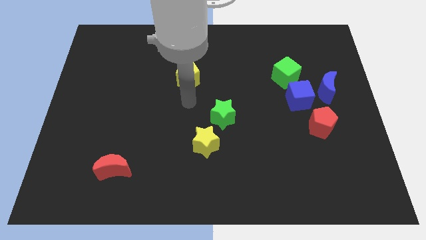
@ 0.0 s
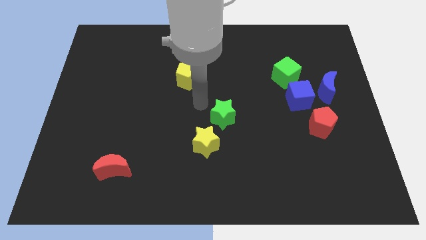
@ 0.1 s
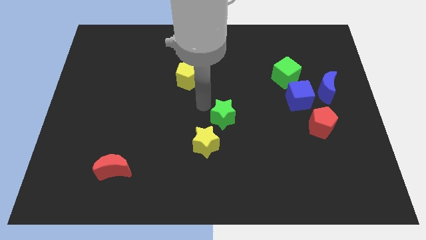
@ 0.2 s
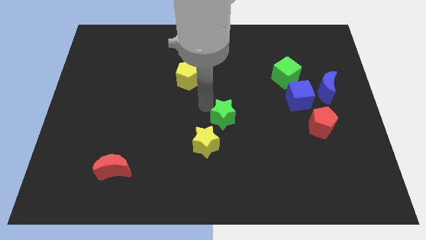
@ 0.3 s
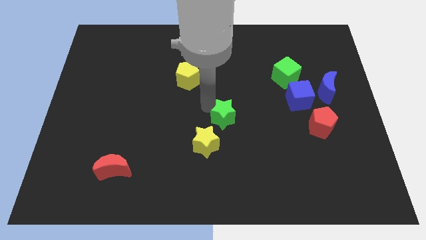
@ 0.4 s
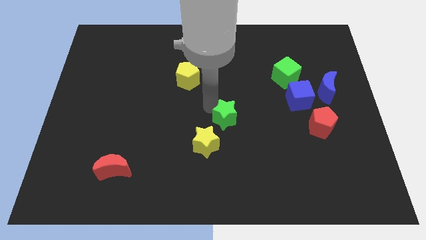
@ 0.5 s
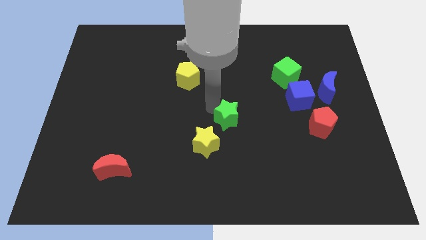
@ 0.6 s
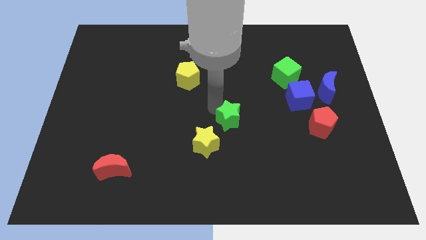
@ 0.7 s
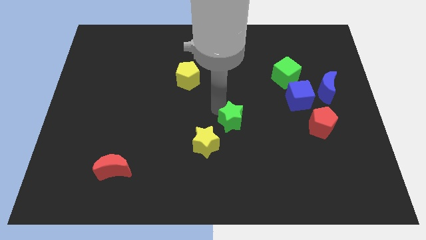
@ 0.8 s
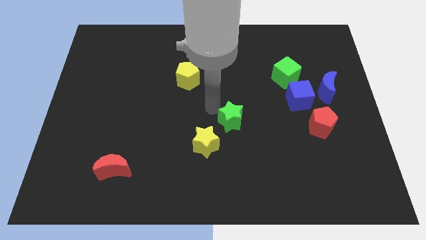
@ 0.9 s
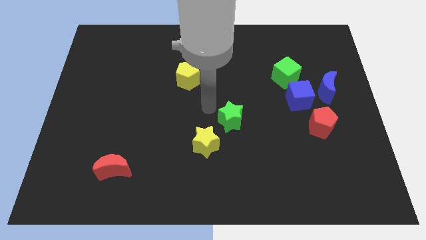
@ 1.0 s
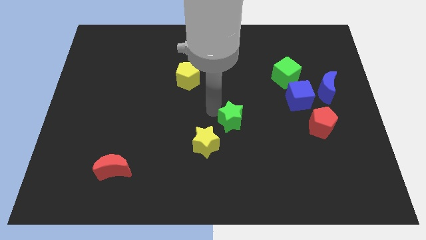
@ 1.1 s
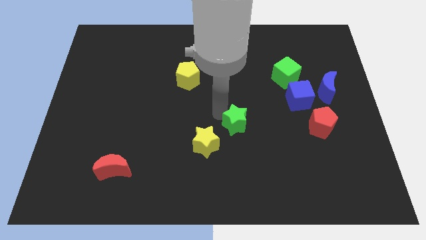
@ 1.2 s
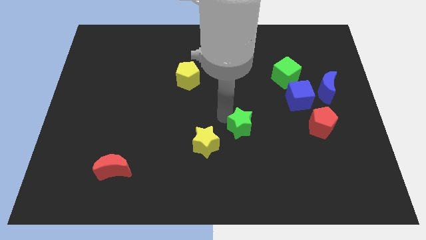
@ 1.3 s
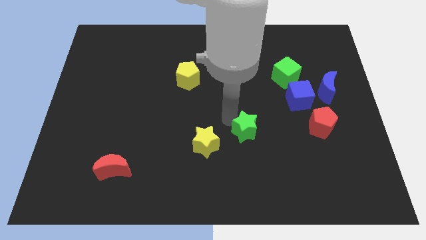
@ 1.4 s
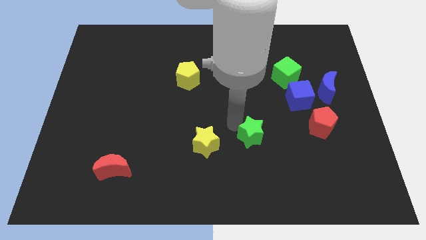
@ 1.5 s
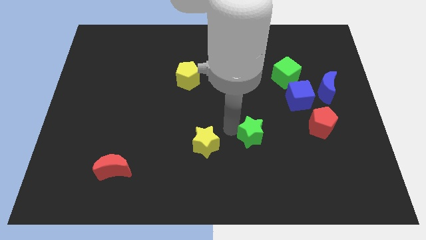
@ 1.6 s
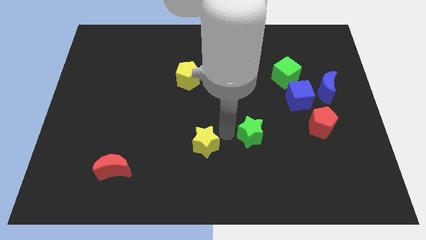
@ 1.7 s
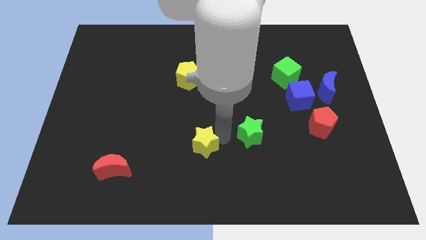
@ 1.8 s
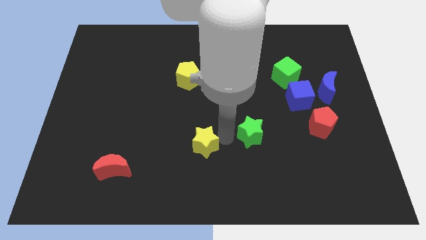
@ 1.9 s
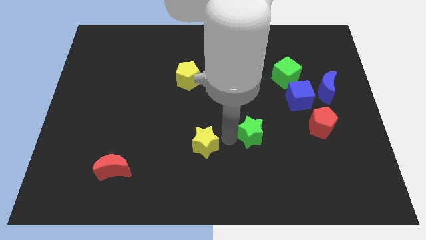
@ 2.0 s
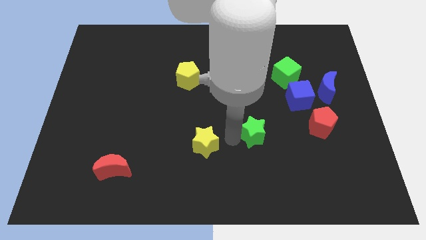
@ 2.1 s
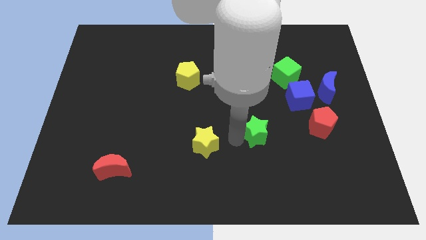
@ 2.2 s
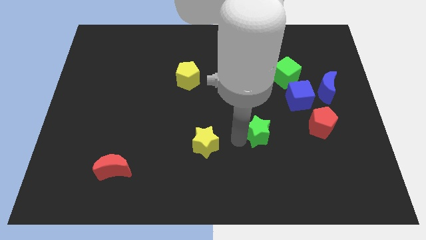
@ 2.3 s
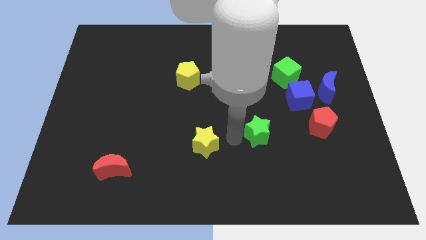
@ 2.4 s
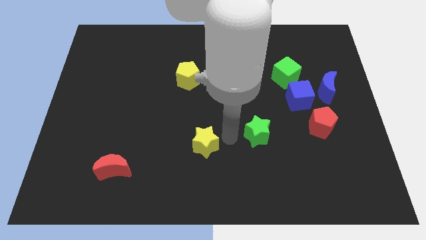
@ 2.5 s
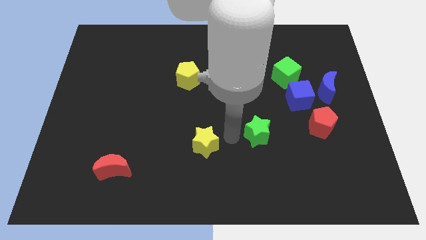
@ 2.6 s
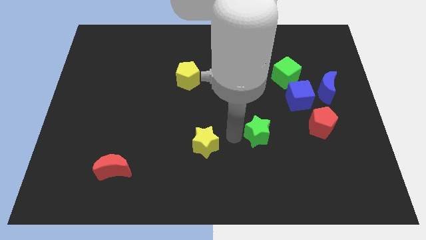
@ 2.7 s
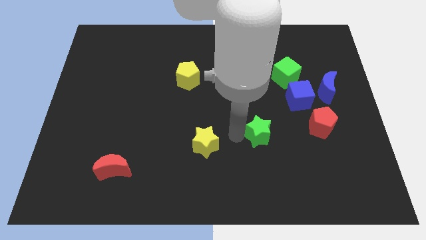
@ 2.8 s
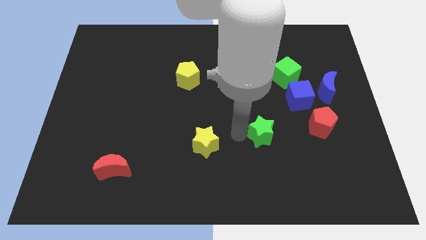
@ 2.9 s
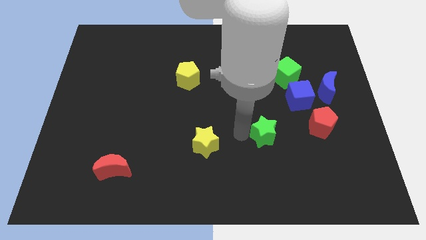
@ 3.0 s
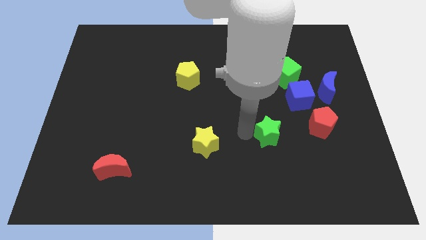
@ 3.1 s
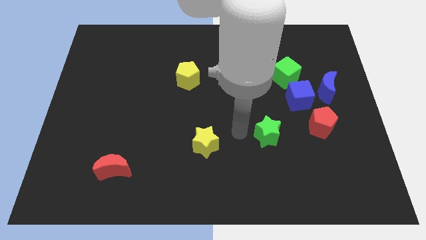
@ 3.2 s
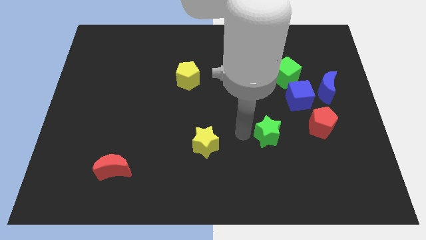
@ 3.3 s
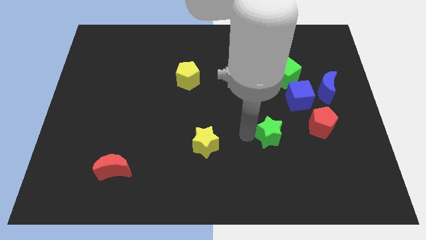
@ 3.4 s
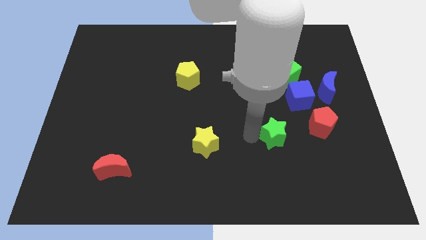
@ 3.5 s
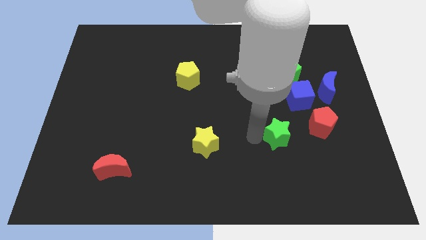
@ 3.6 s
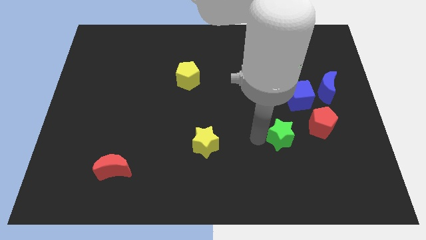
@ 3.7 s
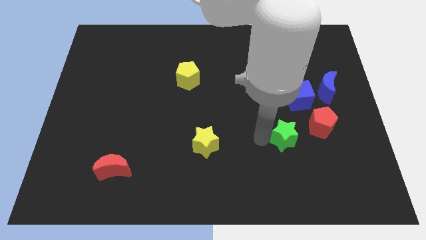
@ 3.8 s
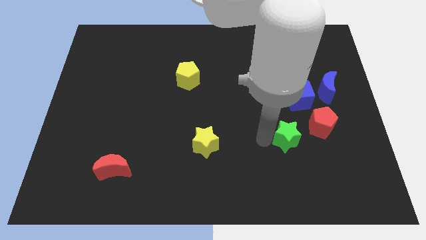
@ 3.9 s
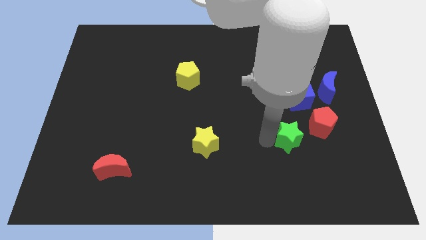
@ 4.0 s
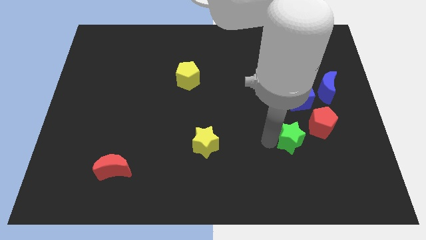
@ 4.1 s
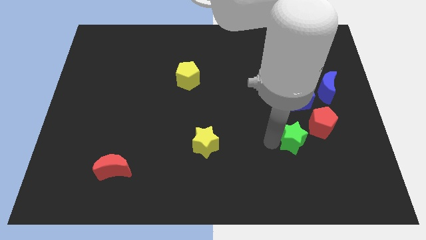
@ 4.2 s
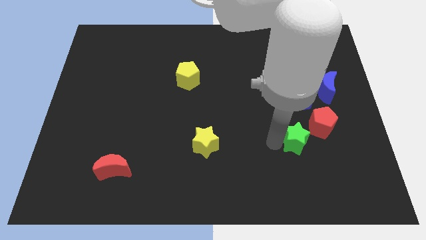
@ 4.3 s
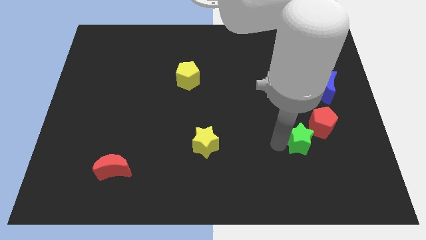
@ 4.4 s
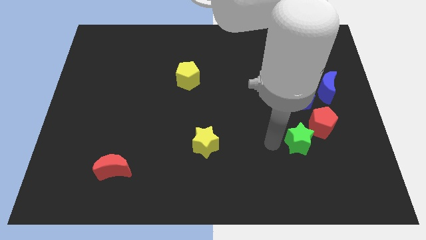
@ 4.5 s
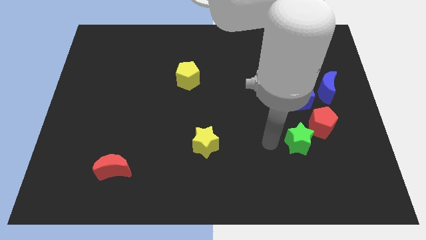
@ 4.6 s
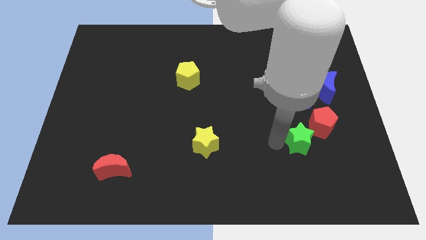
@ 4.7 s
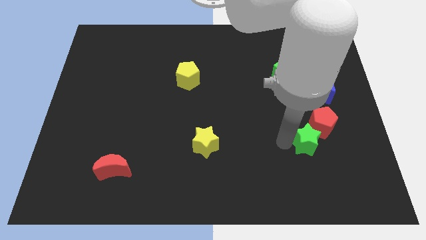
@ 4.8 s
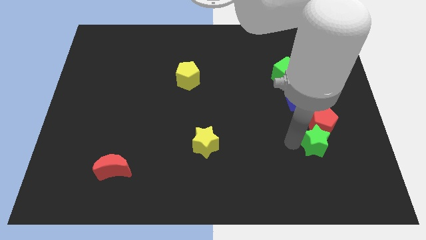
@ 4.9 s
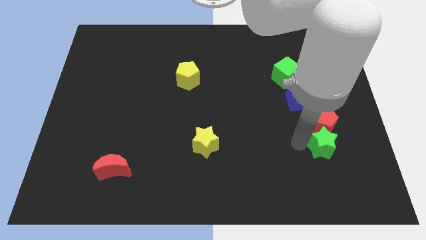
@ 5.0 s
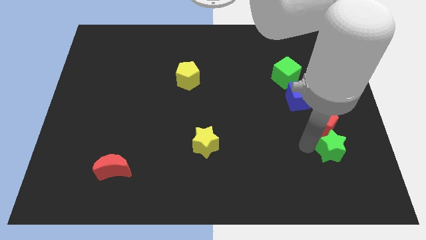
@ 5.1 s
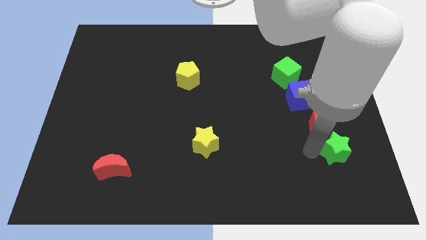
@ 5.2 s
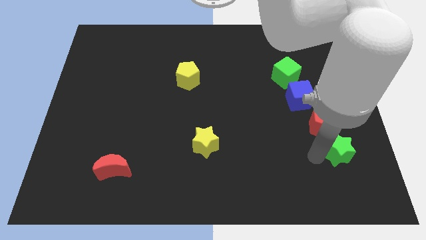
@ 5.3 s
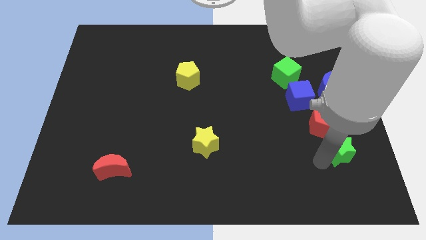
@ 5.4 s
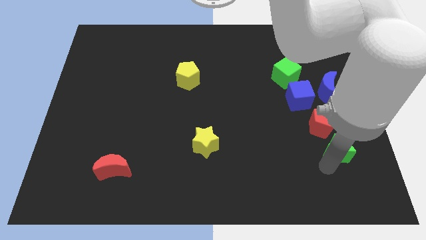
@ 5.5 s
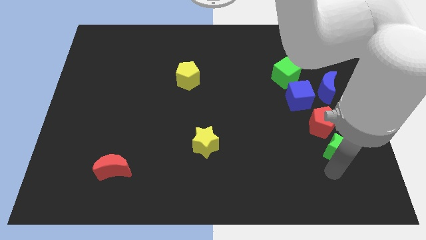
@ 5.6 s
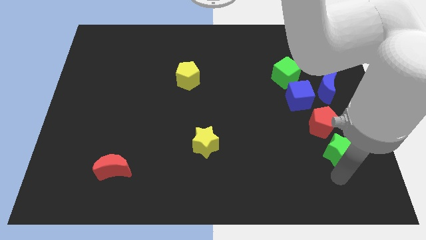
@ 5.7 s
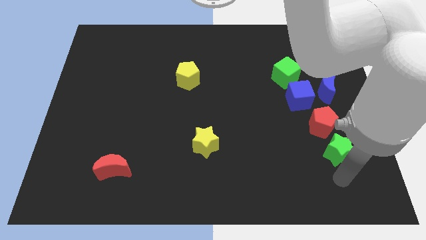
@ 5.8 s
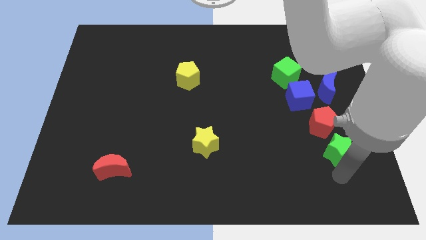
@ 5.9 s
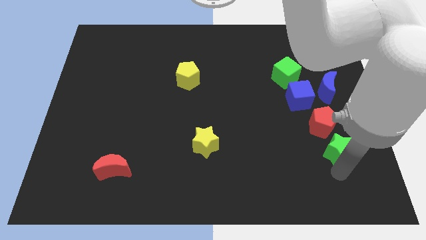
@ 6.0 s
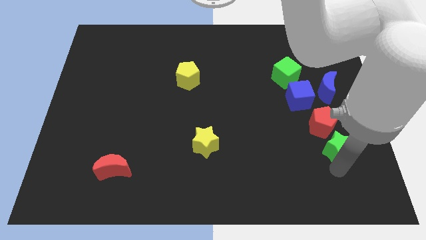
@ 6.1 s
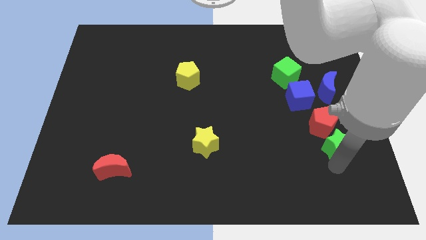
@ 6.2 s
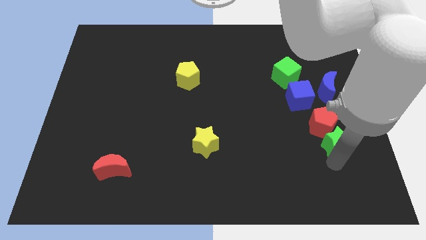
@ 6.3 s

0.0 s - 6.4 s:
move the green star below the blue moon

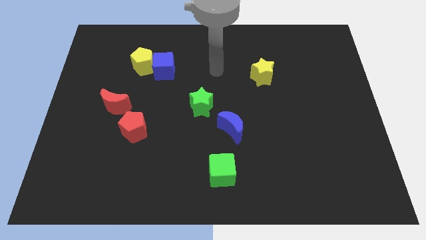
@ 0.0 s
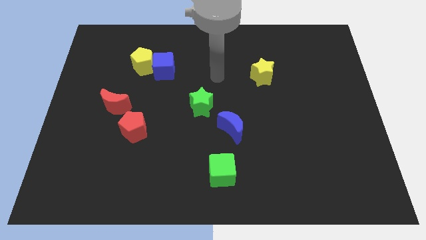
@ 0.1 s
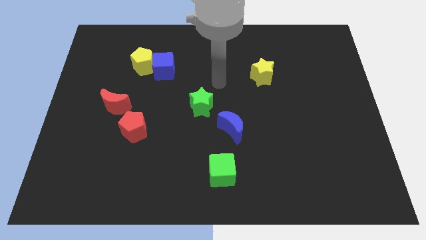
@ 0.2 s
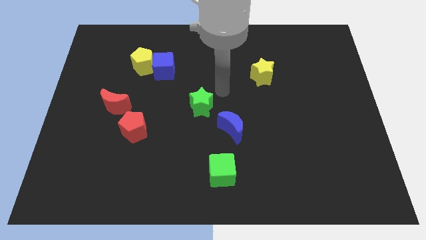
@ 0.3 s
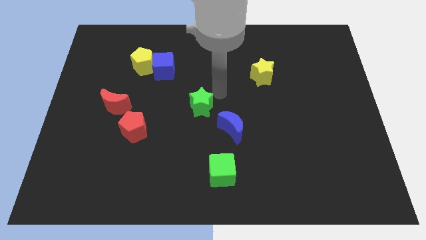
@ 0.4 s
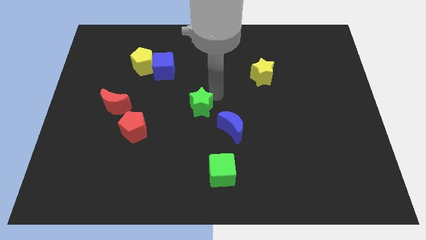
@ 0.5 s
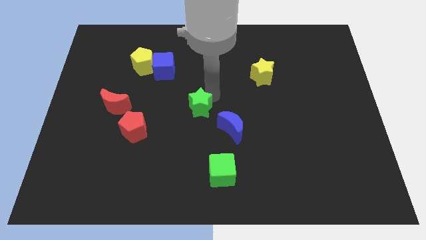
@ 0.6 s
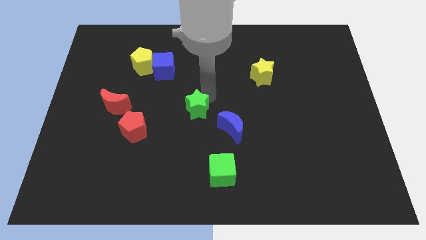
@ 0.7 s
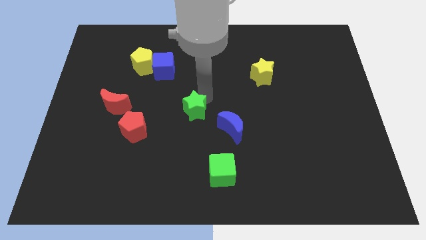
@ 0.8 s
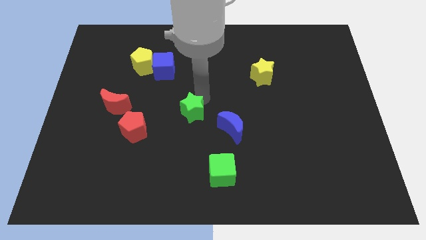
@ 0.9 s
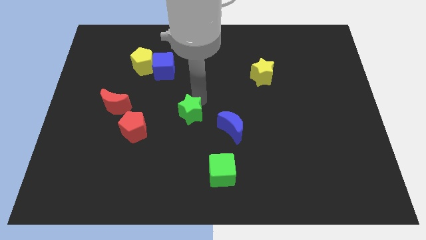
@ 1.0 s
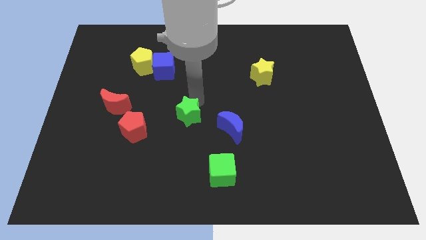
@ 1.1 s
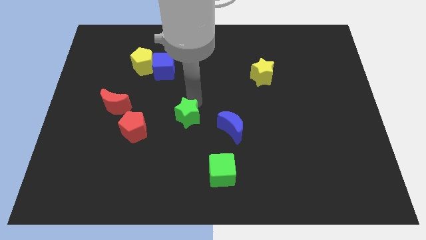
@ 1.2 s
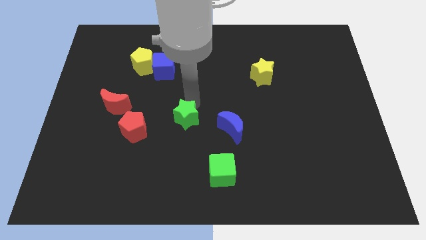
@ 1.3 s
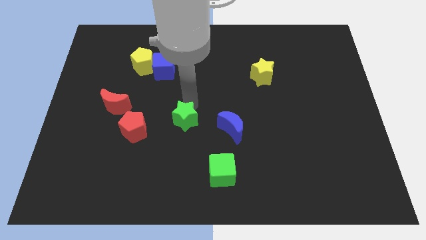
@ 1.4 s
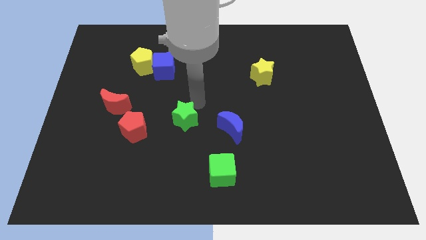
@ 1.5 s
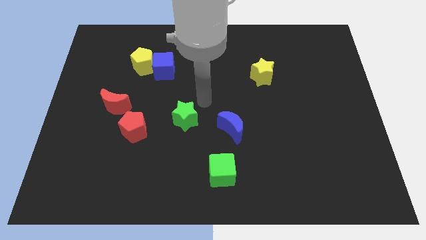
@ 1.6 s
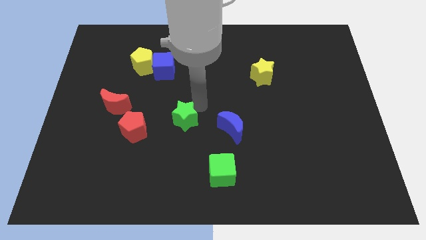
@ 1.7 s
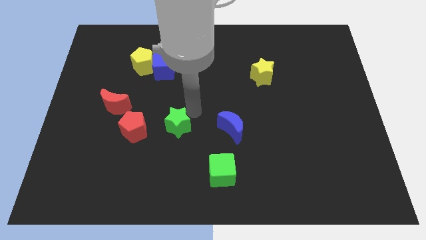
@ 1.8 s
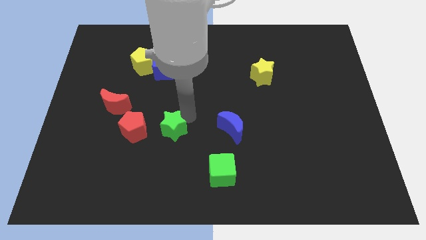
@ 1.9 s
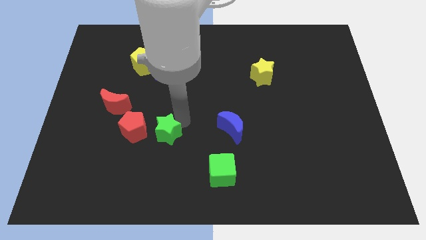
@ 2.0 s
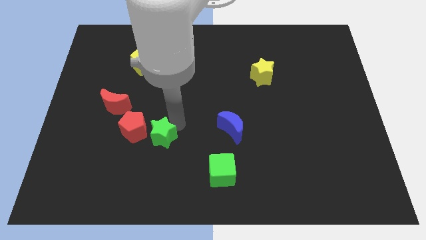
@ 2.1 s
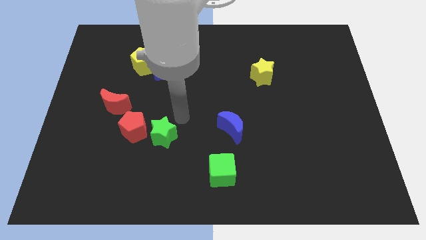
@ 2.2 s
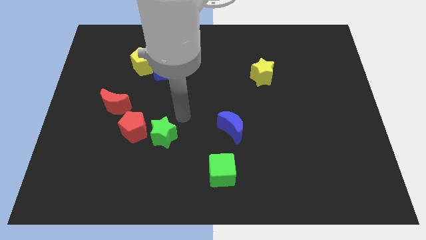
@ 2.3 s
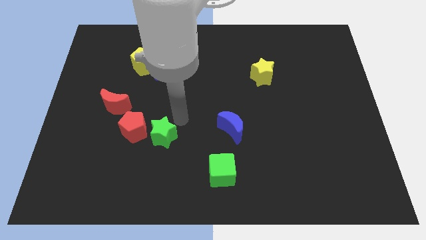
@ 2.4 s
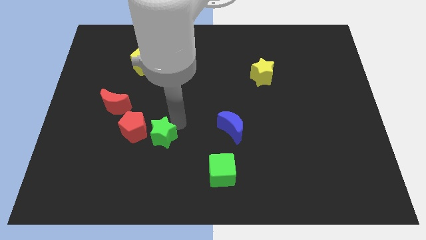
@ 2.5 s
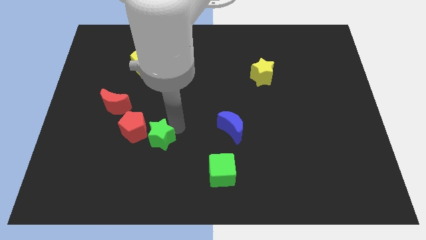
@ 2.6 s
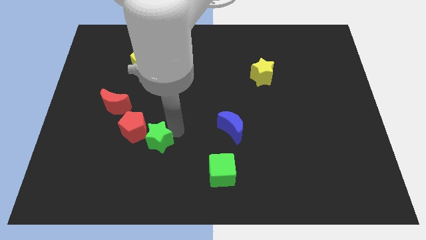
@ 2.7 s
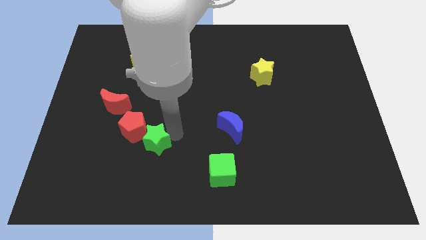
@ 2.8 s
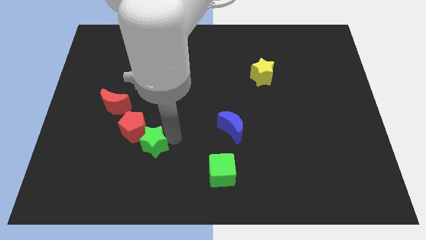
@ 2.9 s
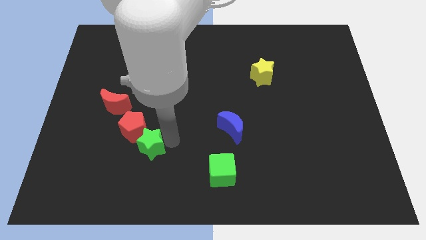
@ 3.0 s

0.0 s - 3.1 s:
slide the green star to the bottom side of the red pentagon
